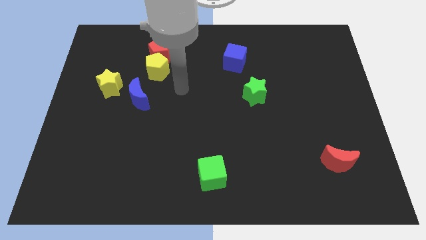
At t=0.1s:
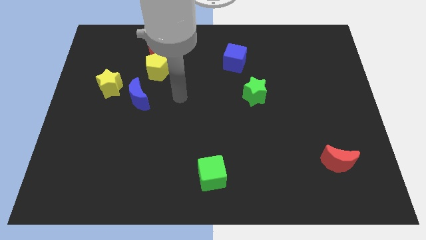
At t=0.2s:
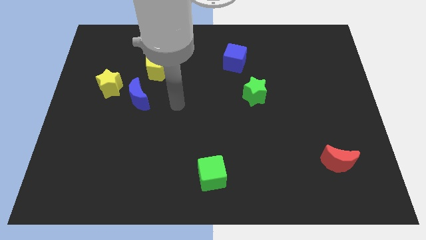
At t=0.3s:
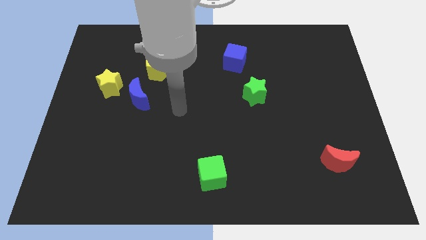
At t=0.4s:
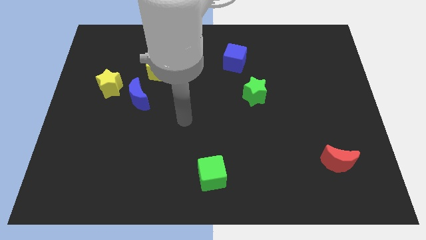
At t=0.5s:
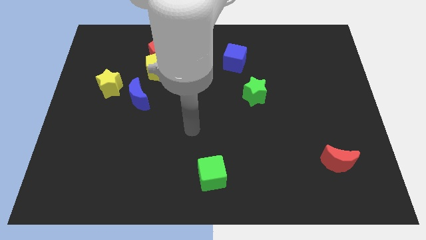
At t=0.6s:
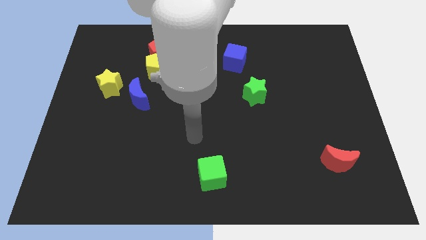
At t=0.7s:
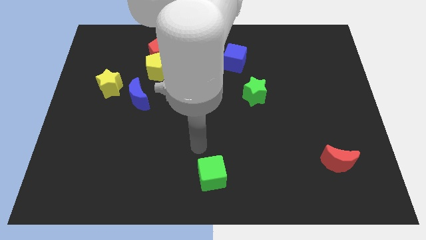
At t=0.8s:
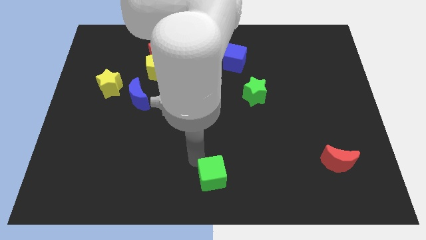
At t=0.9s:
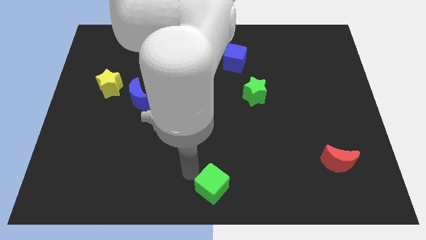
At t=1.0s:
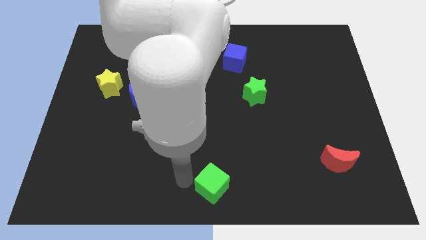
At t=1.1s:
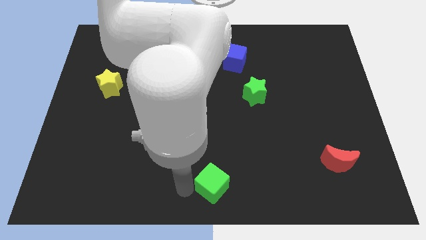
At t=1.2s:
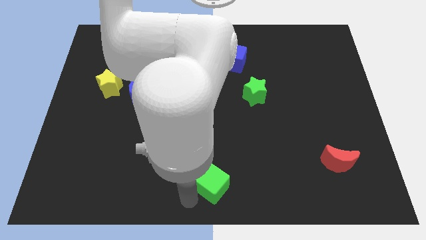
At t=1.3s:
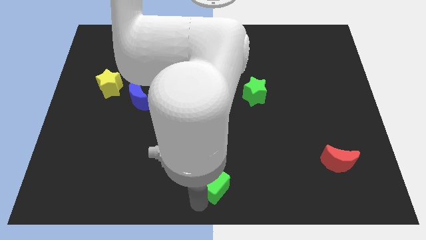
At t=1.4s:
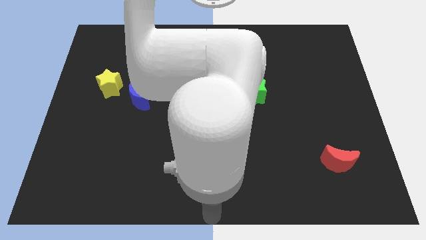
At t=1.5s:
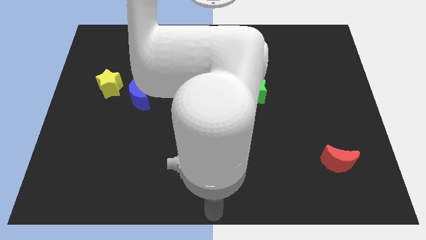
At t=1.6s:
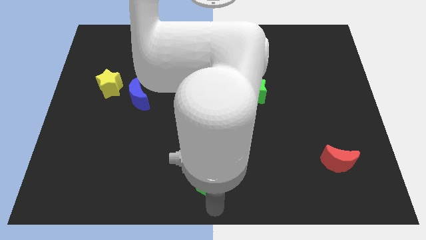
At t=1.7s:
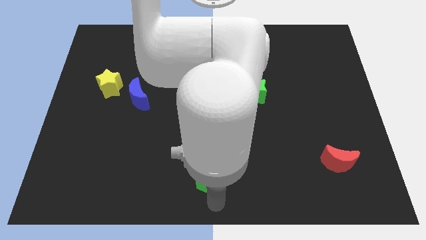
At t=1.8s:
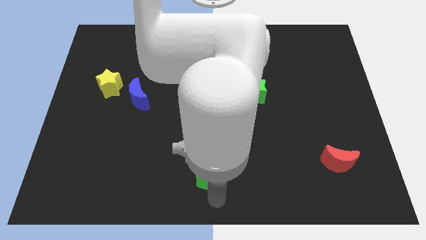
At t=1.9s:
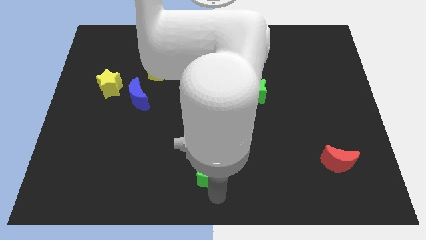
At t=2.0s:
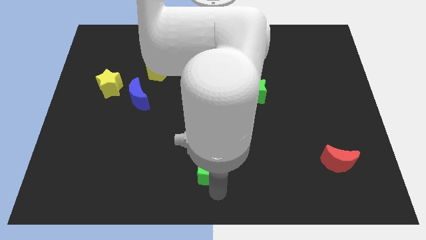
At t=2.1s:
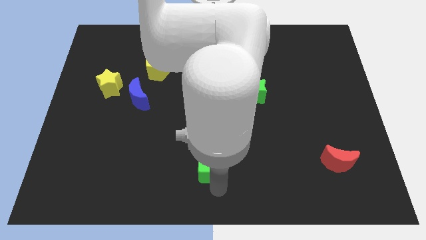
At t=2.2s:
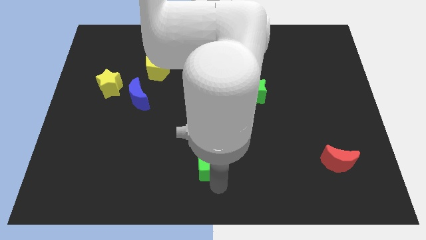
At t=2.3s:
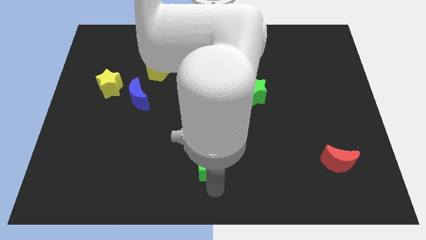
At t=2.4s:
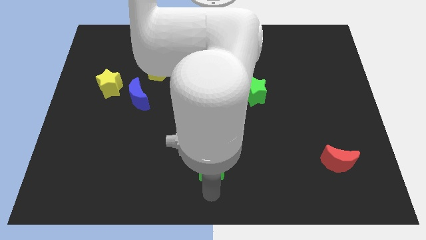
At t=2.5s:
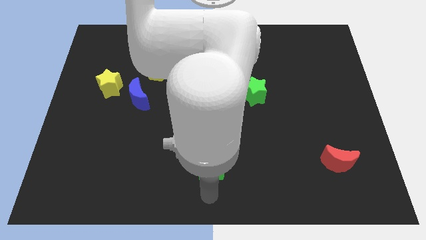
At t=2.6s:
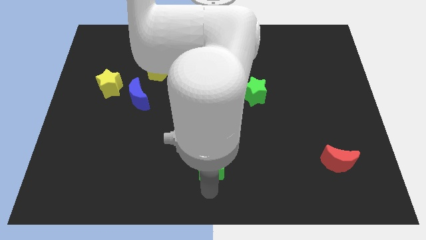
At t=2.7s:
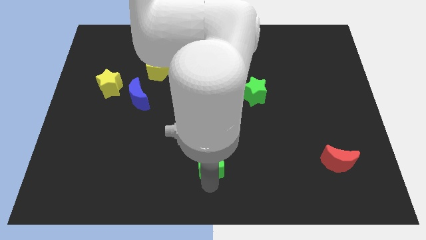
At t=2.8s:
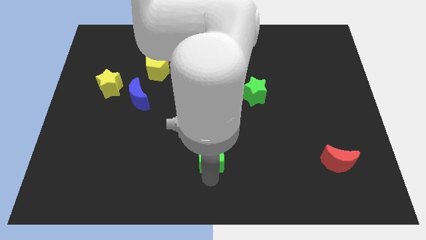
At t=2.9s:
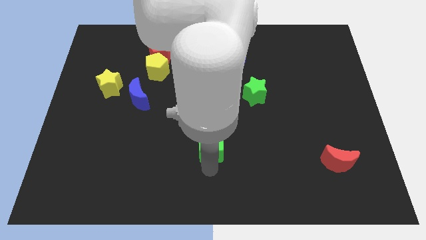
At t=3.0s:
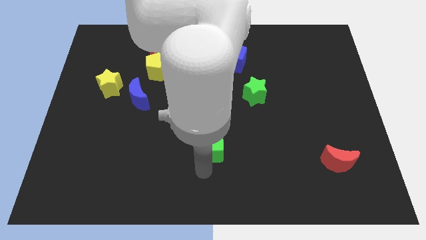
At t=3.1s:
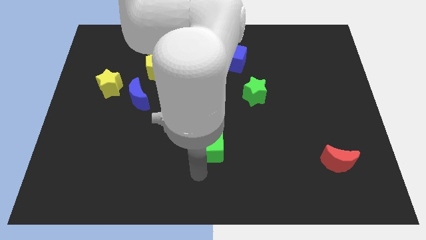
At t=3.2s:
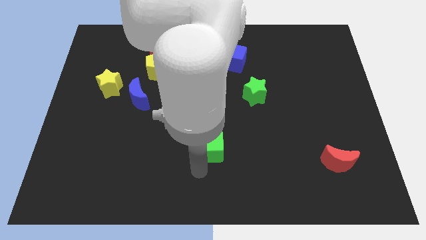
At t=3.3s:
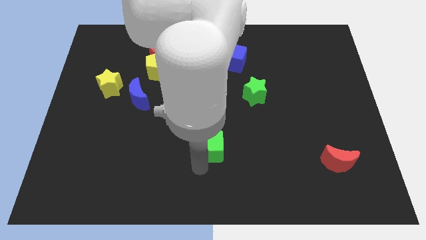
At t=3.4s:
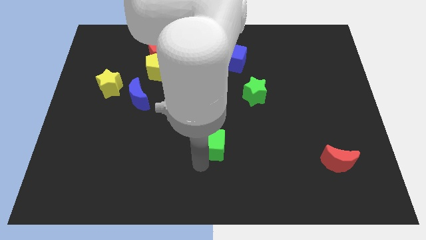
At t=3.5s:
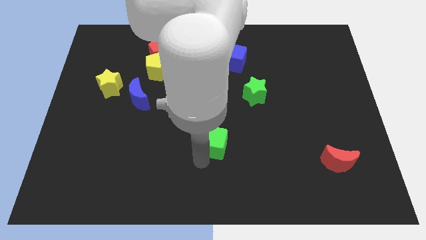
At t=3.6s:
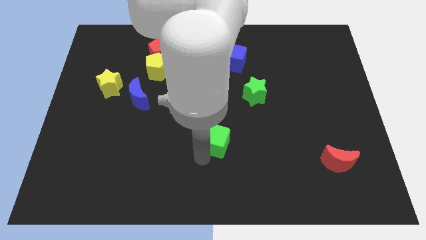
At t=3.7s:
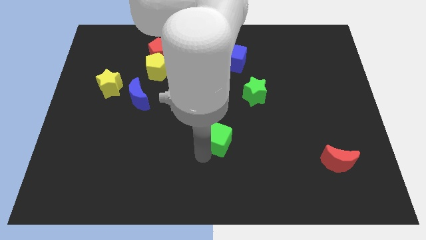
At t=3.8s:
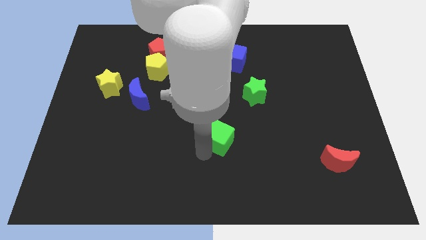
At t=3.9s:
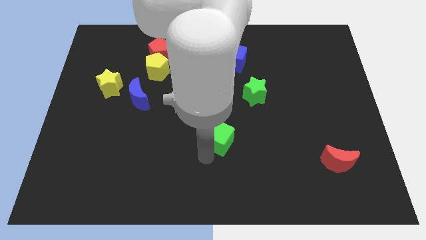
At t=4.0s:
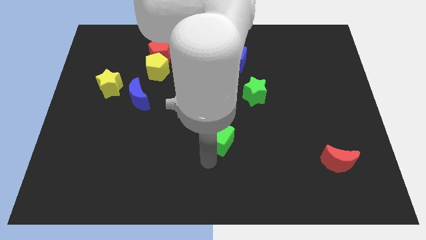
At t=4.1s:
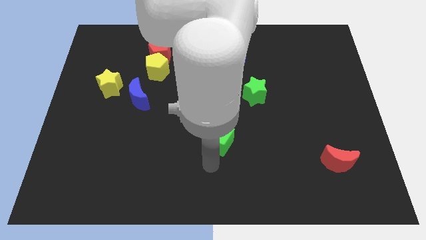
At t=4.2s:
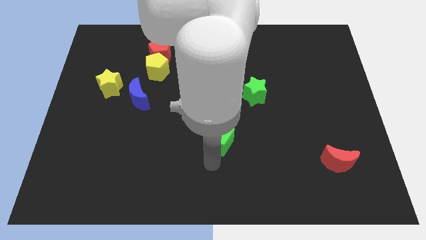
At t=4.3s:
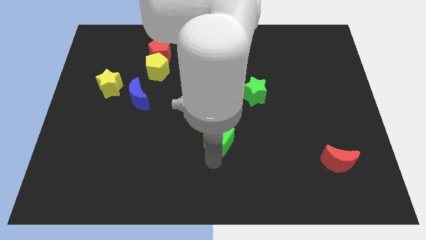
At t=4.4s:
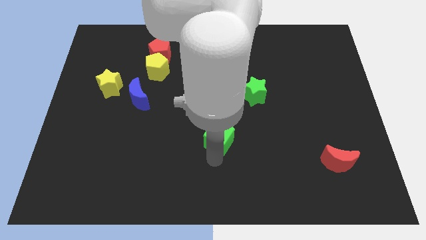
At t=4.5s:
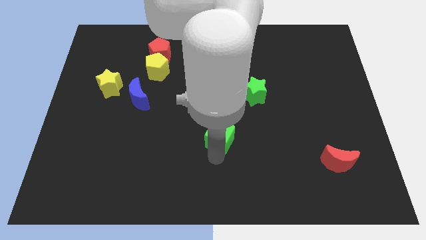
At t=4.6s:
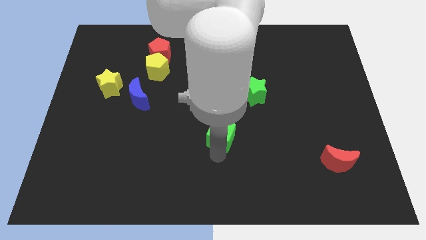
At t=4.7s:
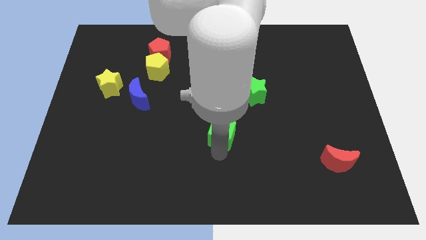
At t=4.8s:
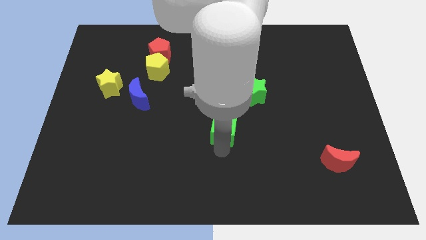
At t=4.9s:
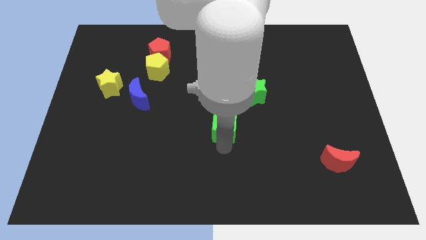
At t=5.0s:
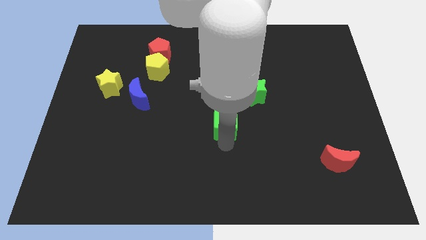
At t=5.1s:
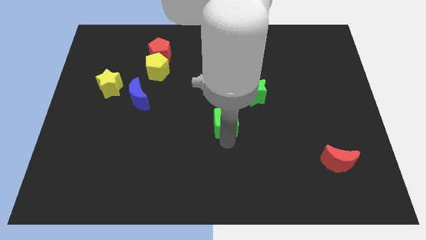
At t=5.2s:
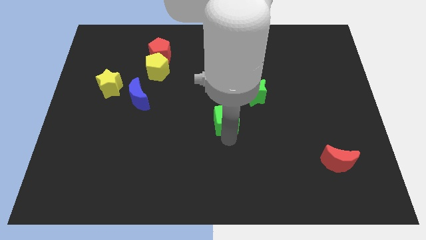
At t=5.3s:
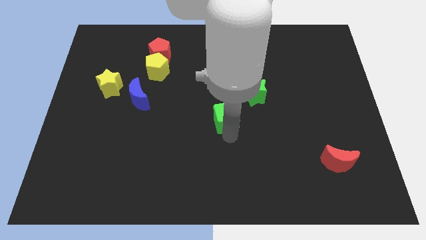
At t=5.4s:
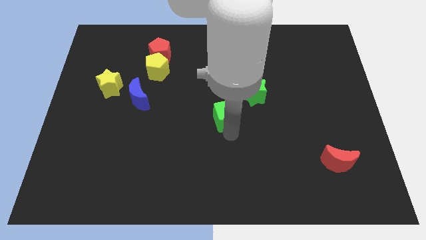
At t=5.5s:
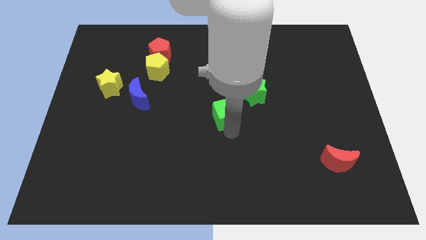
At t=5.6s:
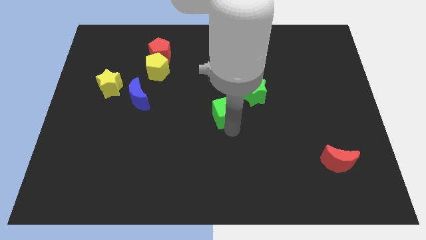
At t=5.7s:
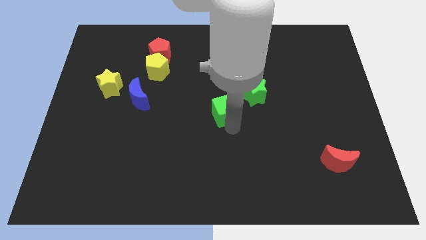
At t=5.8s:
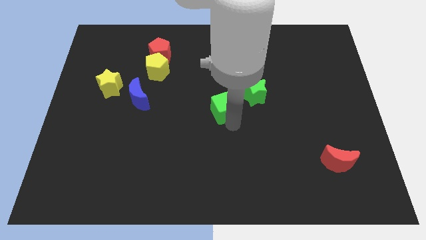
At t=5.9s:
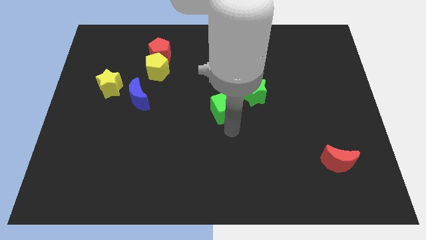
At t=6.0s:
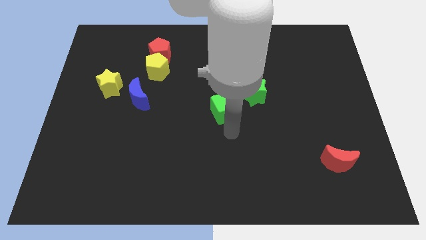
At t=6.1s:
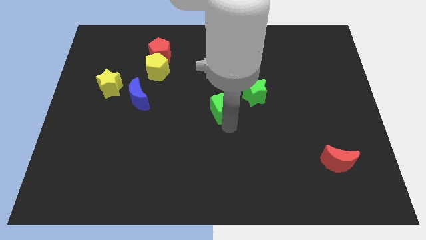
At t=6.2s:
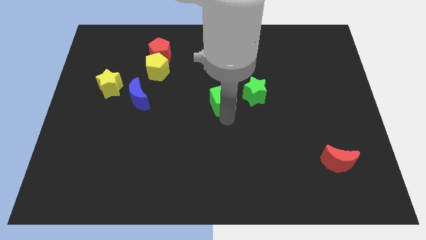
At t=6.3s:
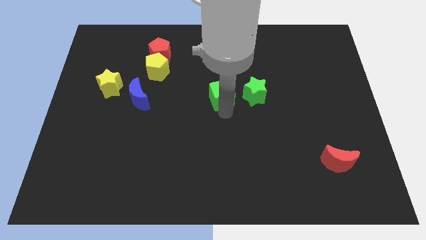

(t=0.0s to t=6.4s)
push the green cube up

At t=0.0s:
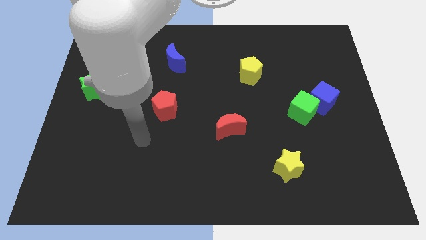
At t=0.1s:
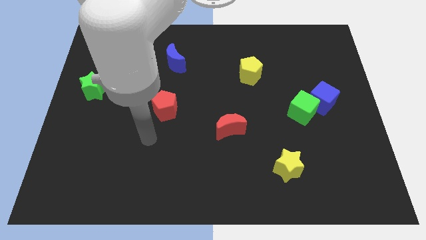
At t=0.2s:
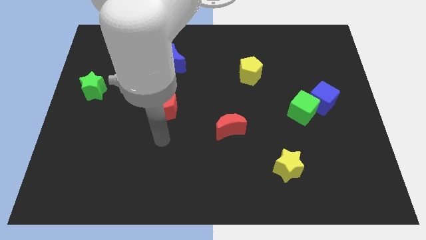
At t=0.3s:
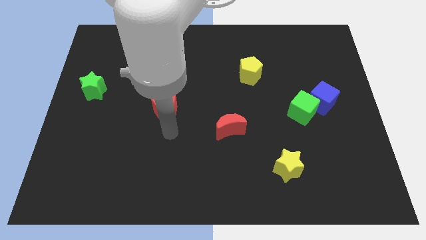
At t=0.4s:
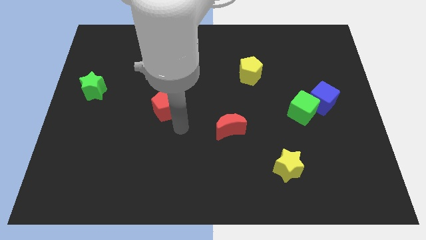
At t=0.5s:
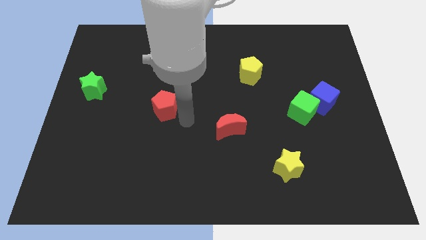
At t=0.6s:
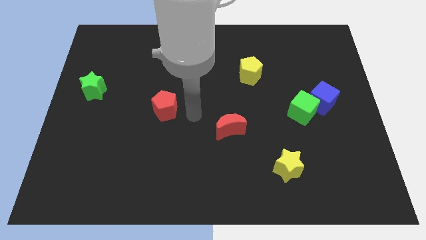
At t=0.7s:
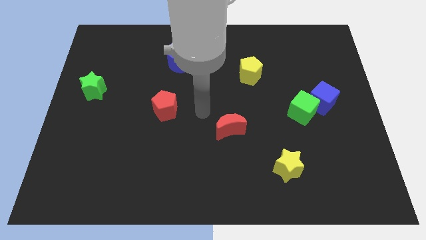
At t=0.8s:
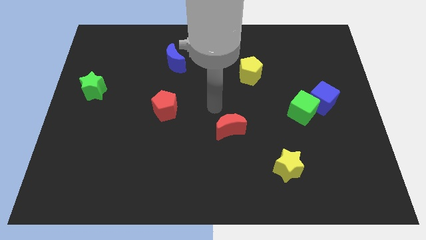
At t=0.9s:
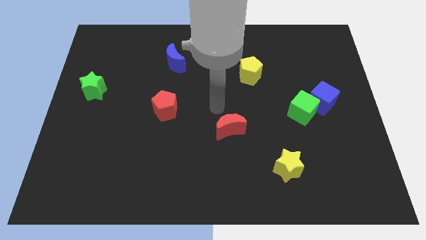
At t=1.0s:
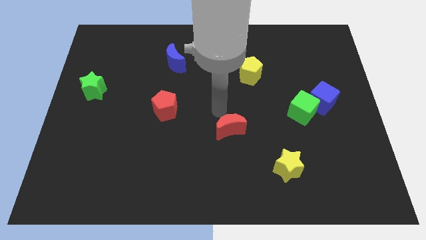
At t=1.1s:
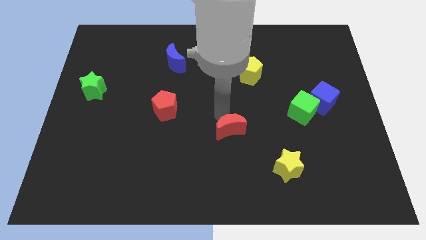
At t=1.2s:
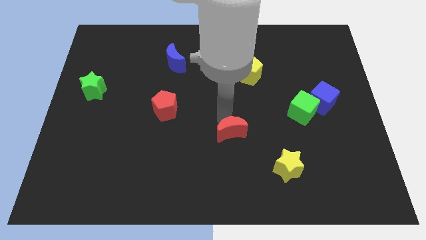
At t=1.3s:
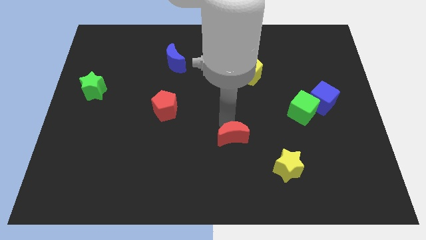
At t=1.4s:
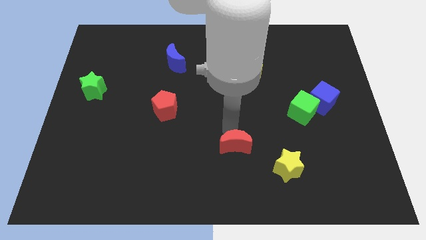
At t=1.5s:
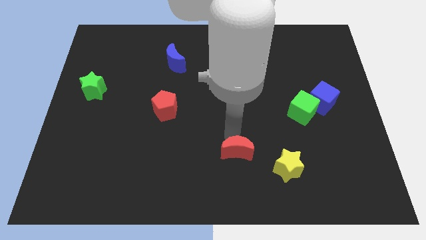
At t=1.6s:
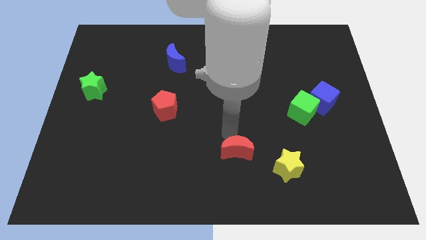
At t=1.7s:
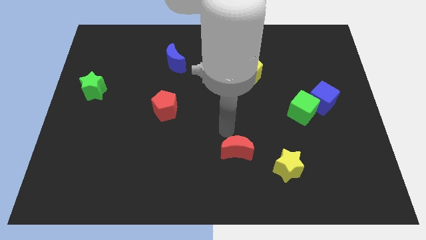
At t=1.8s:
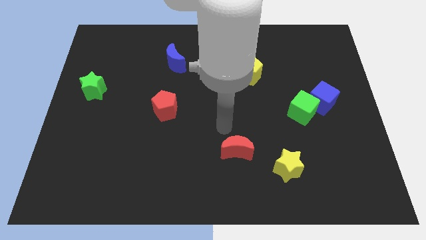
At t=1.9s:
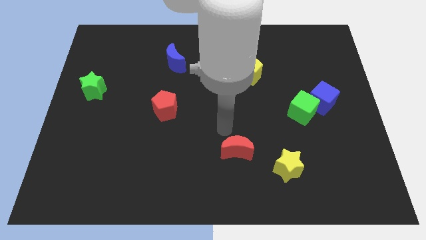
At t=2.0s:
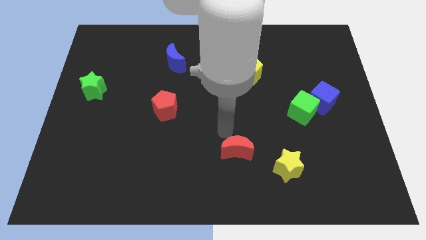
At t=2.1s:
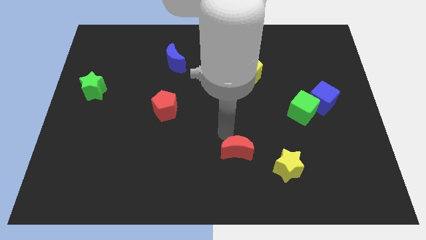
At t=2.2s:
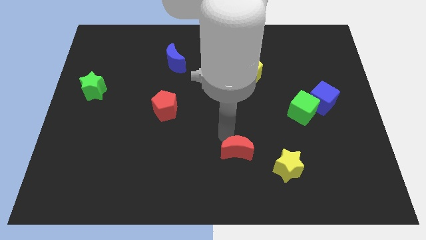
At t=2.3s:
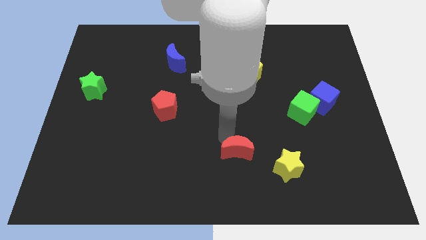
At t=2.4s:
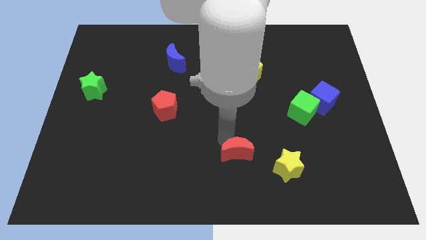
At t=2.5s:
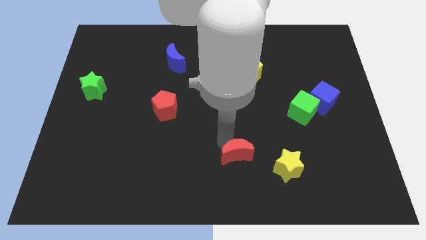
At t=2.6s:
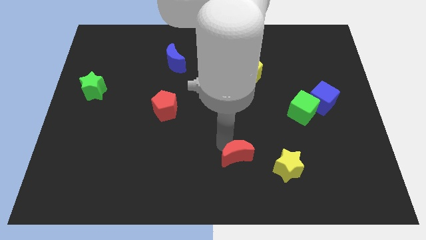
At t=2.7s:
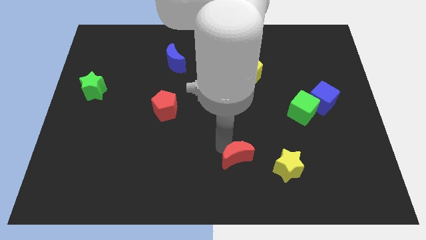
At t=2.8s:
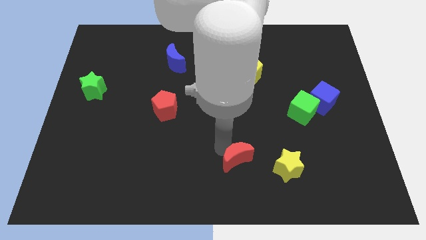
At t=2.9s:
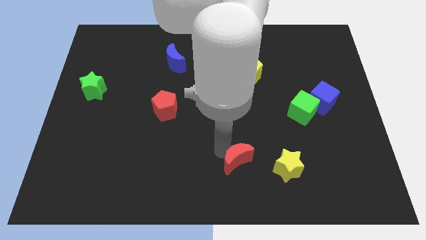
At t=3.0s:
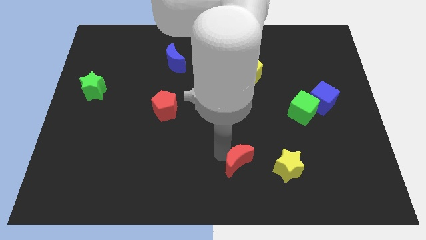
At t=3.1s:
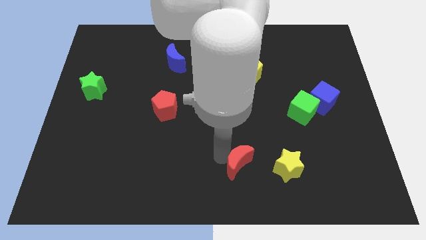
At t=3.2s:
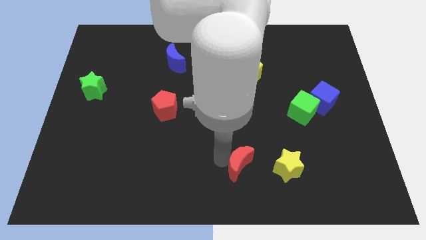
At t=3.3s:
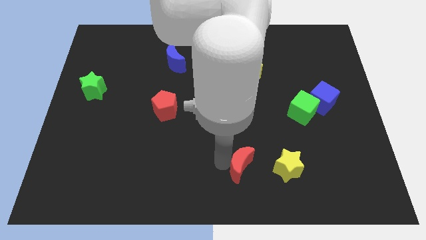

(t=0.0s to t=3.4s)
slightly move the red moon down and then right
